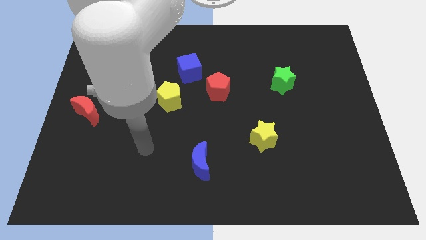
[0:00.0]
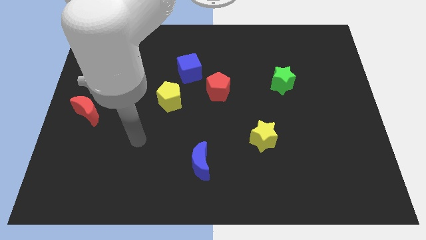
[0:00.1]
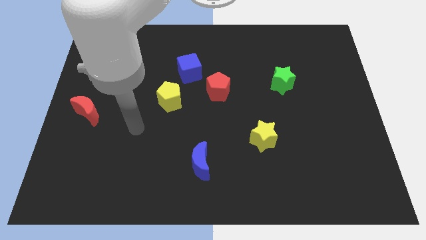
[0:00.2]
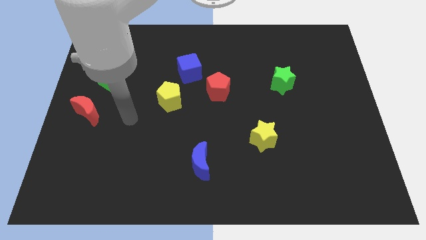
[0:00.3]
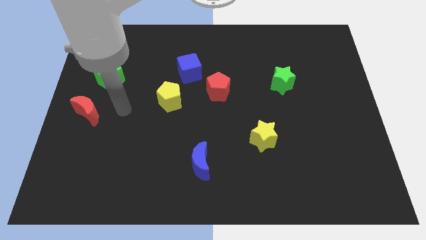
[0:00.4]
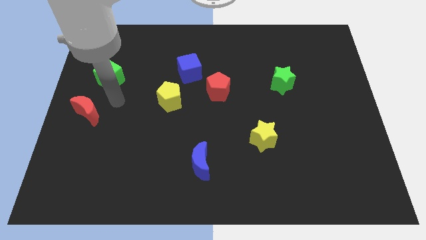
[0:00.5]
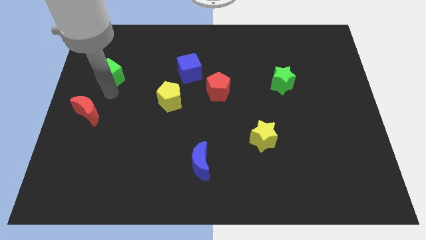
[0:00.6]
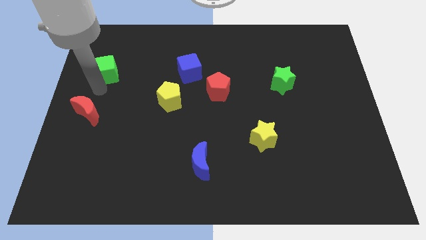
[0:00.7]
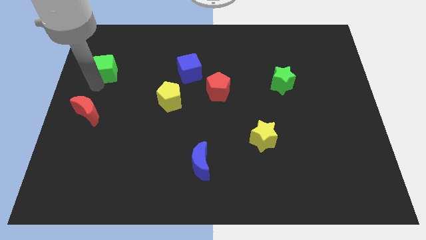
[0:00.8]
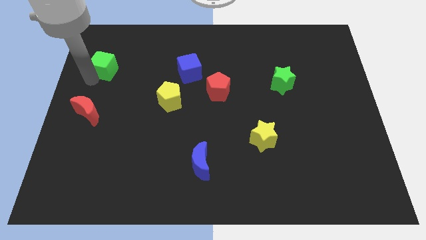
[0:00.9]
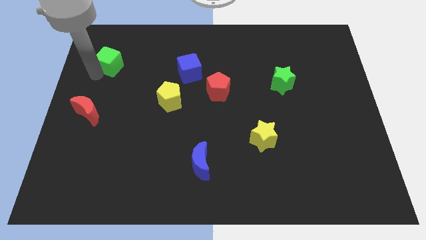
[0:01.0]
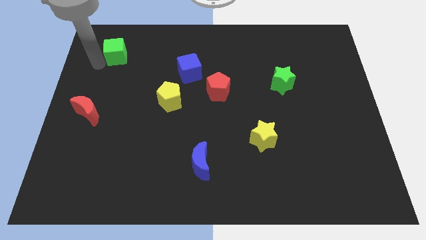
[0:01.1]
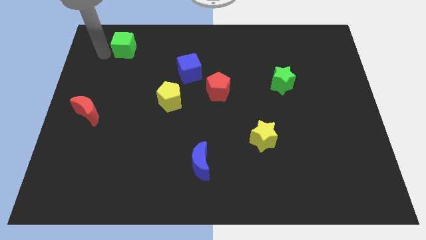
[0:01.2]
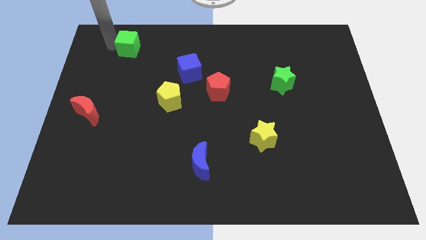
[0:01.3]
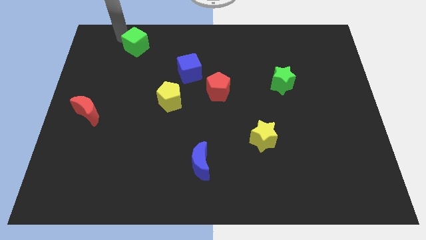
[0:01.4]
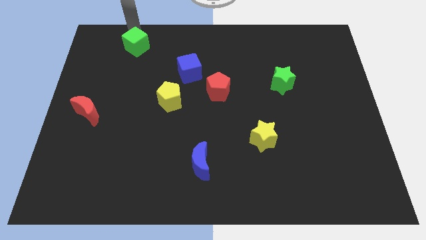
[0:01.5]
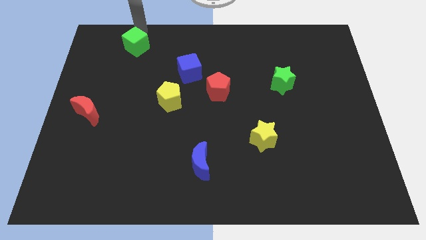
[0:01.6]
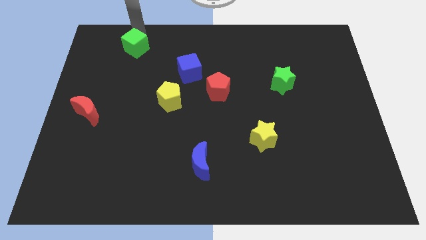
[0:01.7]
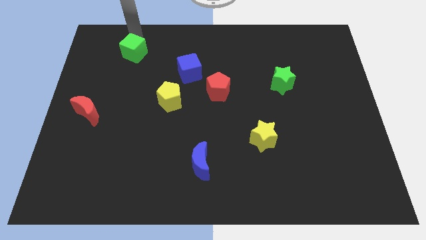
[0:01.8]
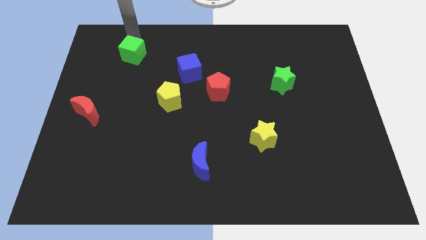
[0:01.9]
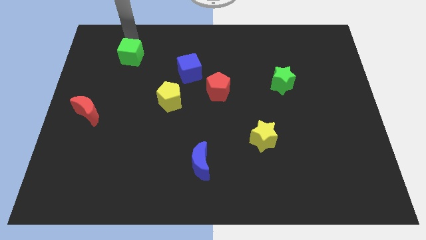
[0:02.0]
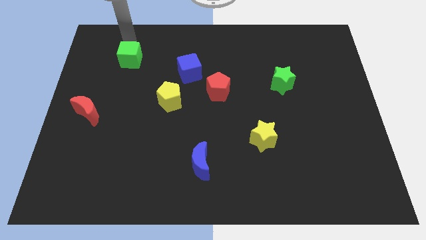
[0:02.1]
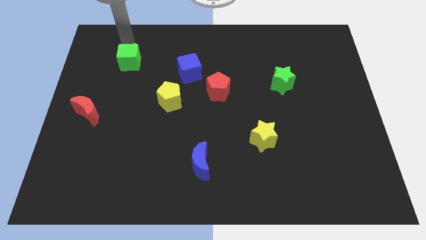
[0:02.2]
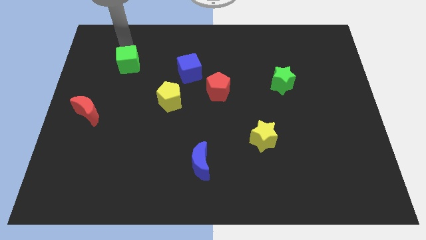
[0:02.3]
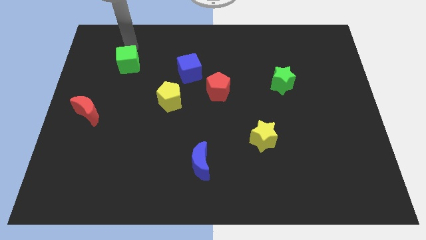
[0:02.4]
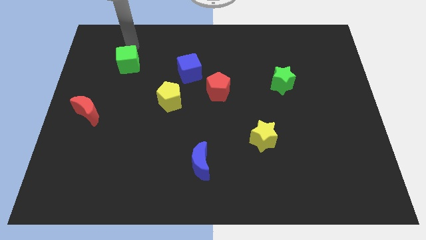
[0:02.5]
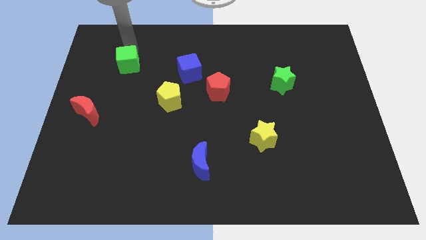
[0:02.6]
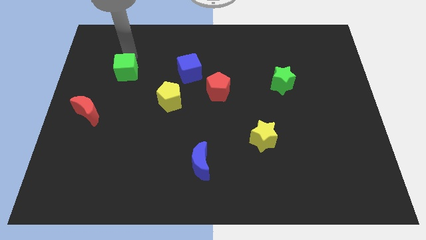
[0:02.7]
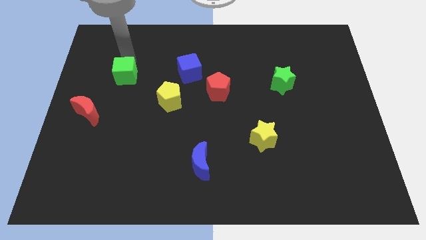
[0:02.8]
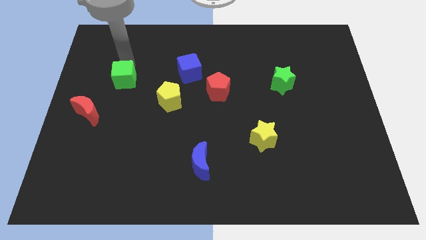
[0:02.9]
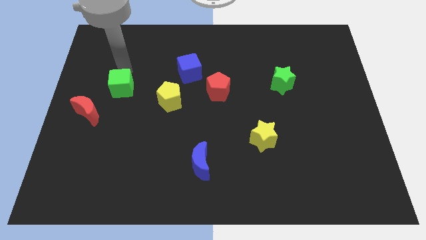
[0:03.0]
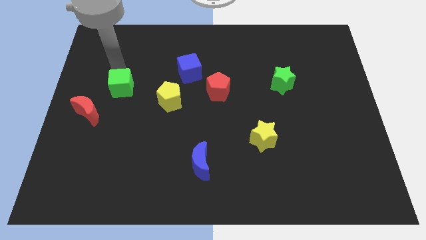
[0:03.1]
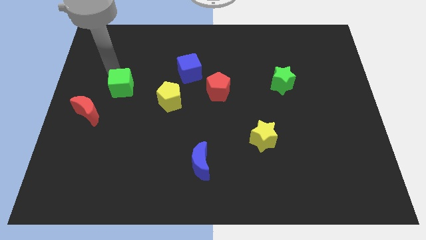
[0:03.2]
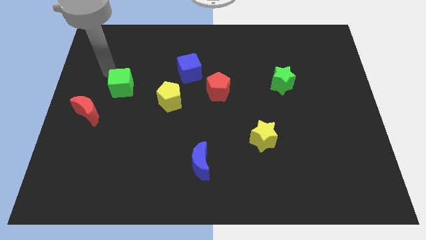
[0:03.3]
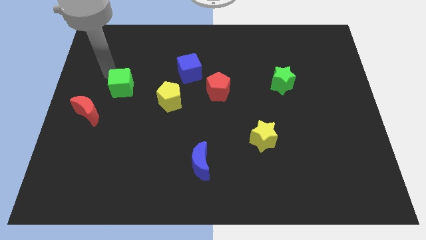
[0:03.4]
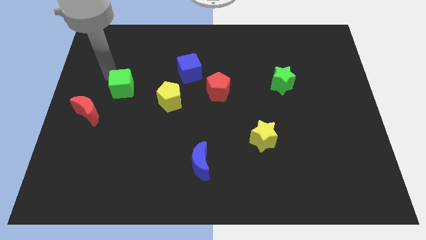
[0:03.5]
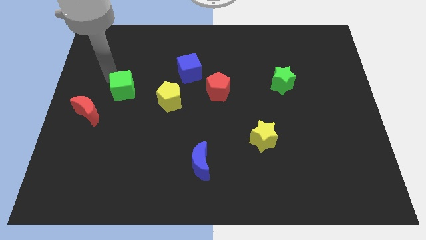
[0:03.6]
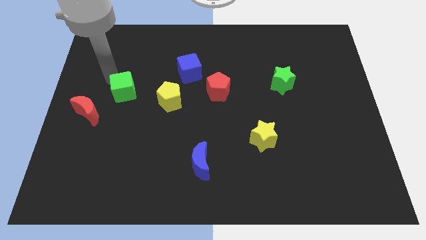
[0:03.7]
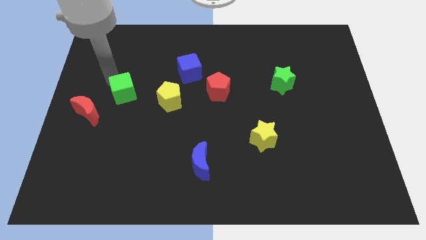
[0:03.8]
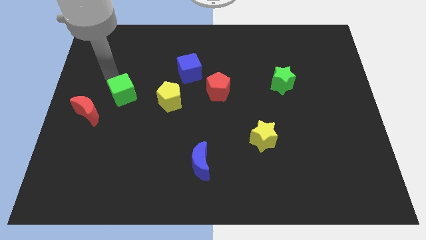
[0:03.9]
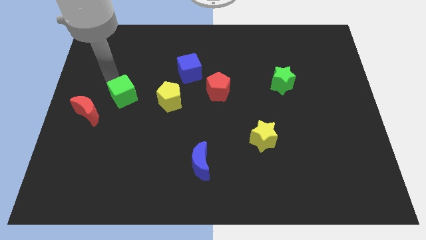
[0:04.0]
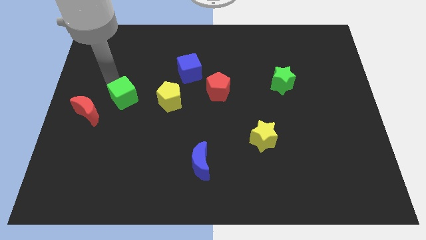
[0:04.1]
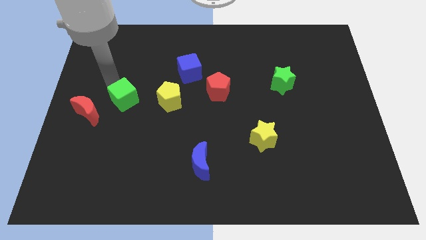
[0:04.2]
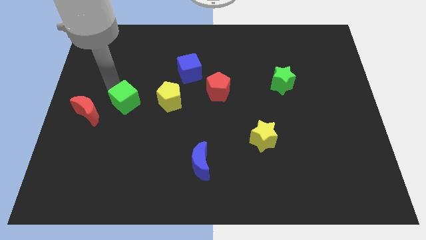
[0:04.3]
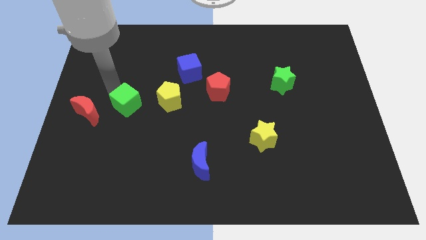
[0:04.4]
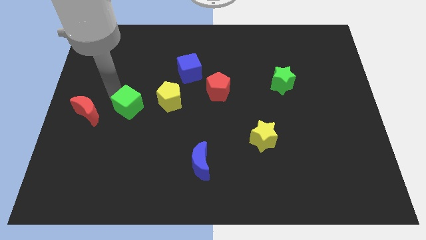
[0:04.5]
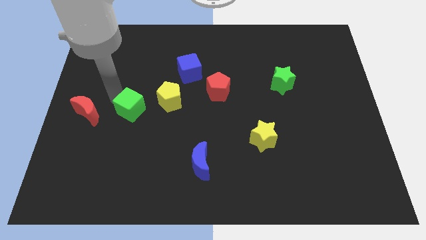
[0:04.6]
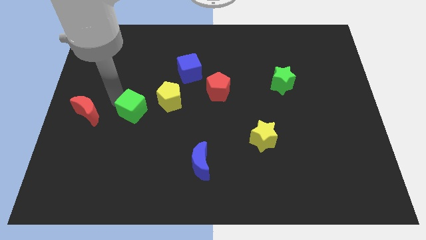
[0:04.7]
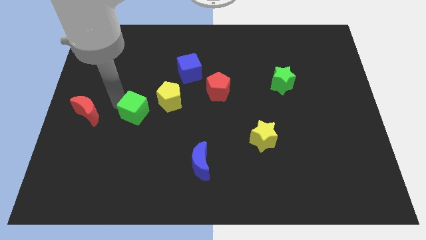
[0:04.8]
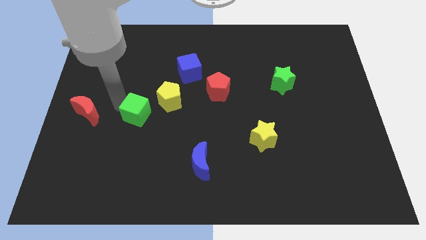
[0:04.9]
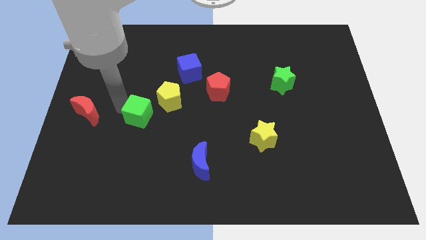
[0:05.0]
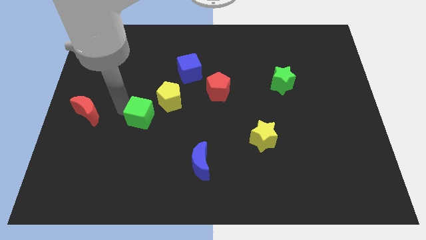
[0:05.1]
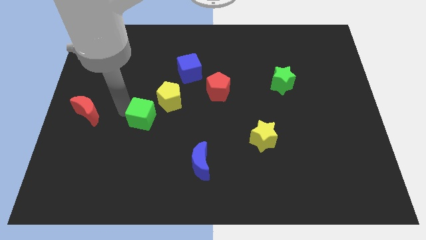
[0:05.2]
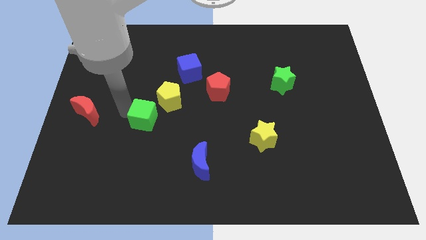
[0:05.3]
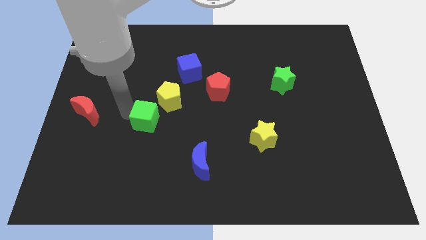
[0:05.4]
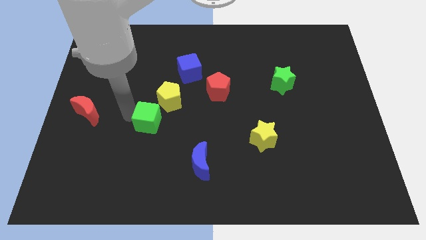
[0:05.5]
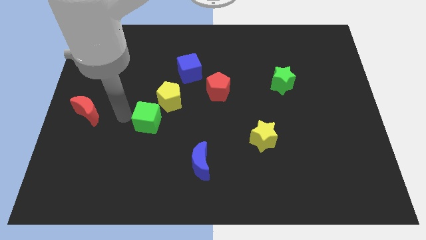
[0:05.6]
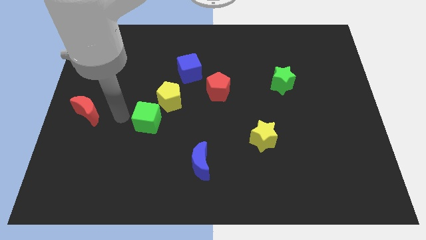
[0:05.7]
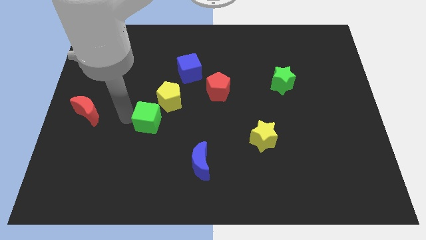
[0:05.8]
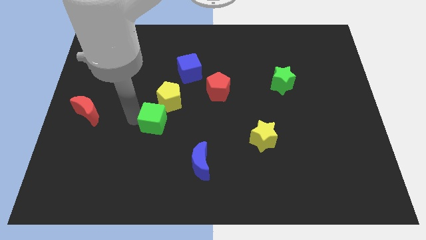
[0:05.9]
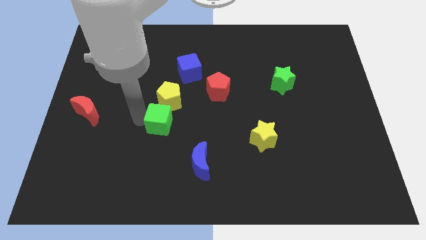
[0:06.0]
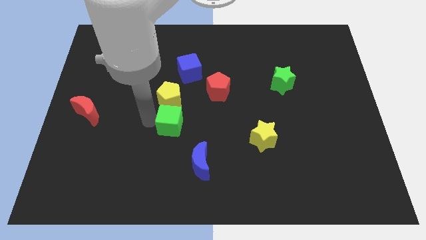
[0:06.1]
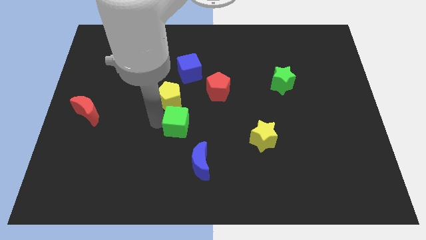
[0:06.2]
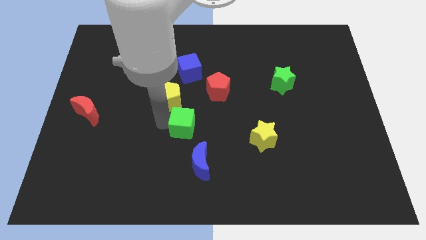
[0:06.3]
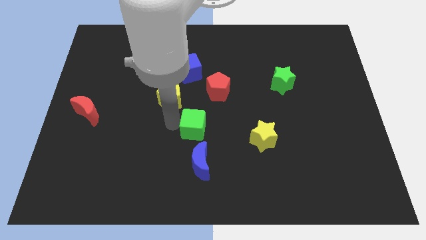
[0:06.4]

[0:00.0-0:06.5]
push the green cube to the left side of the yellow star

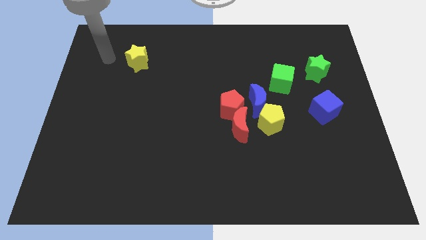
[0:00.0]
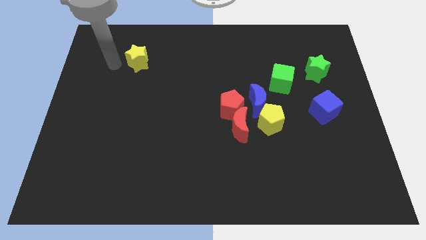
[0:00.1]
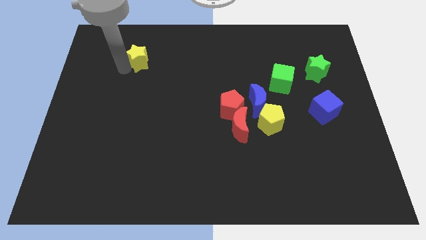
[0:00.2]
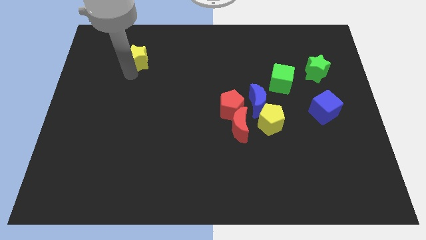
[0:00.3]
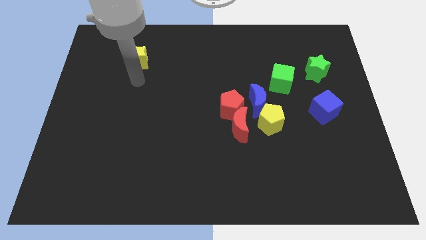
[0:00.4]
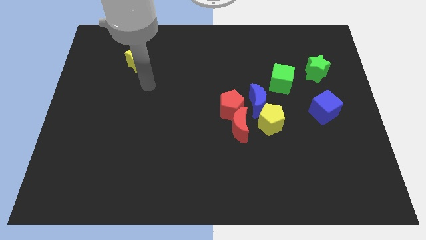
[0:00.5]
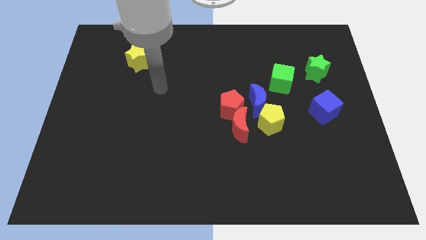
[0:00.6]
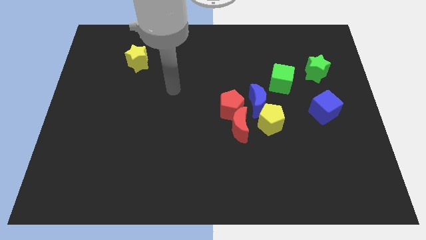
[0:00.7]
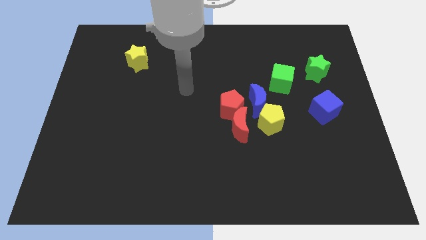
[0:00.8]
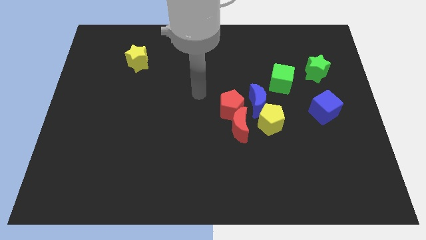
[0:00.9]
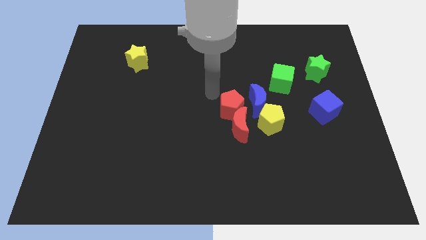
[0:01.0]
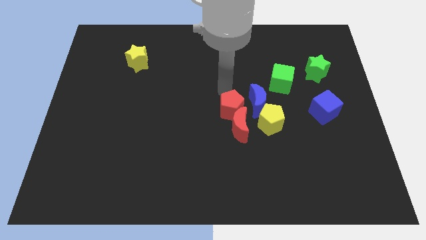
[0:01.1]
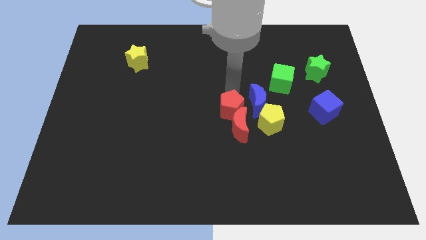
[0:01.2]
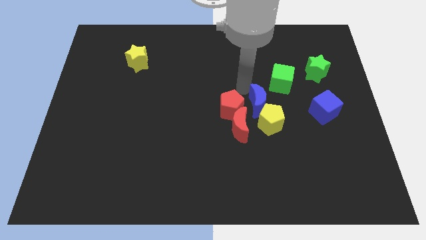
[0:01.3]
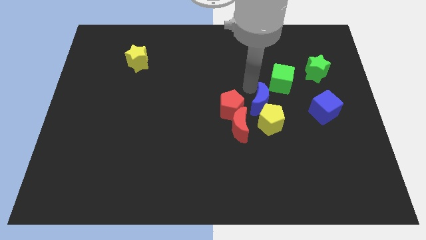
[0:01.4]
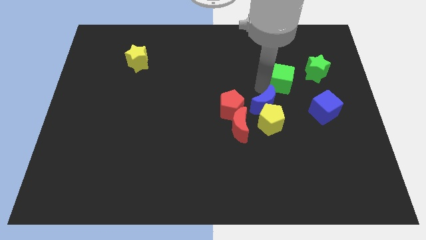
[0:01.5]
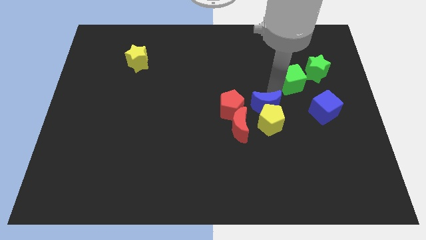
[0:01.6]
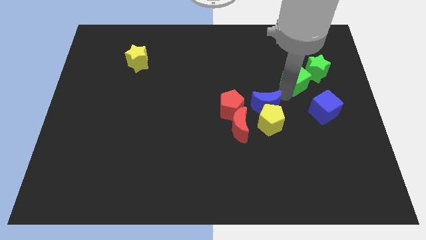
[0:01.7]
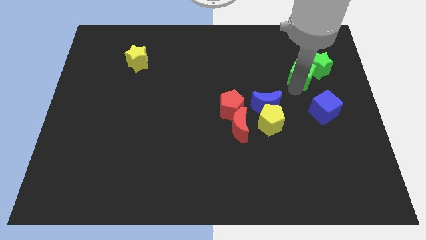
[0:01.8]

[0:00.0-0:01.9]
put the blue cube to the bottom of the green cube
